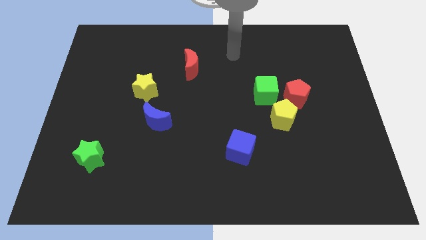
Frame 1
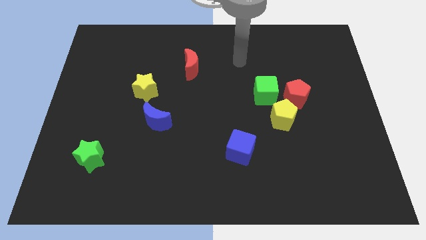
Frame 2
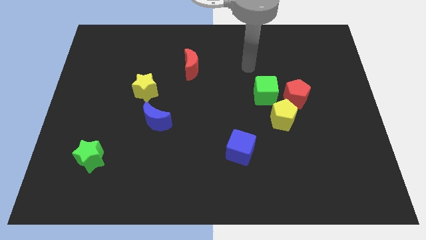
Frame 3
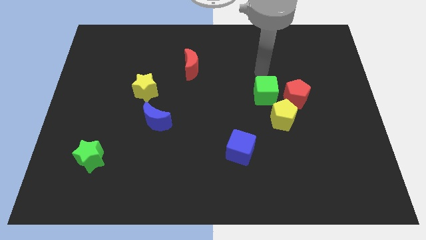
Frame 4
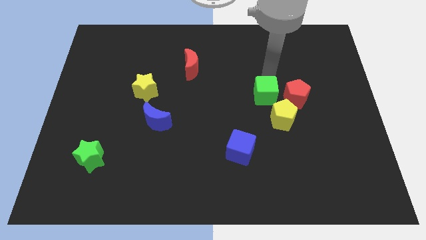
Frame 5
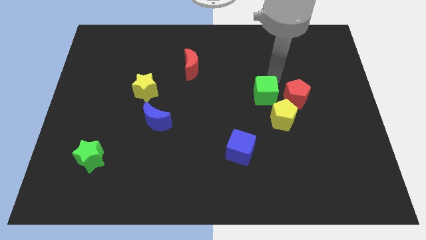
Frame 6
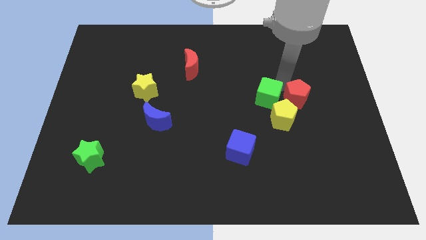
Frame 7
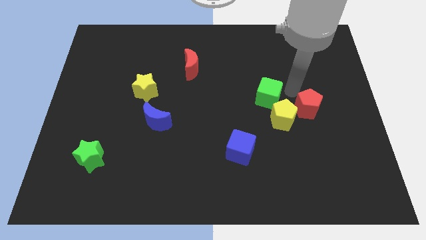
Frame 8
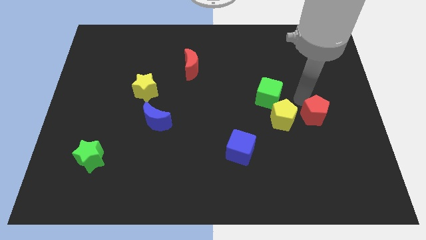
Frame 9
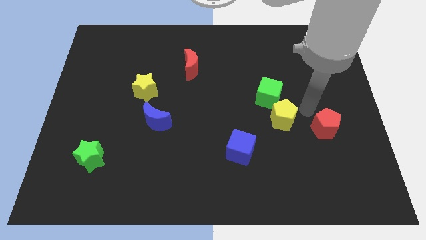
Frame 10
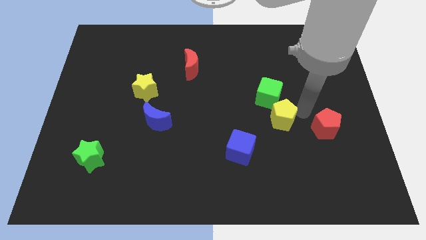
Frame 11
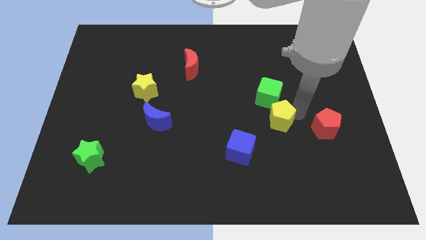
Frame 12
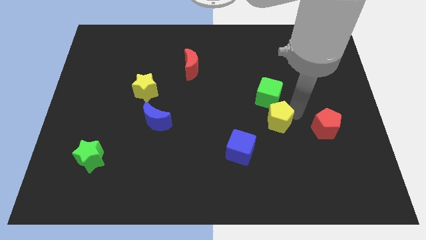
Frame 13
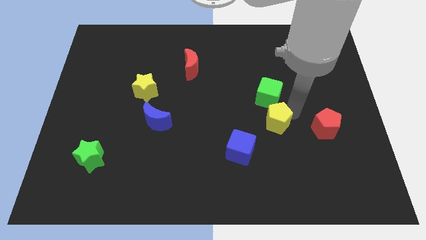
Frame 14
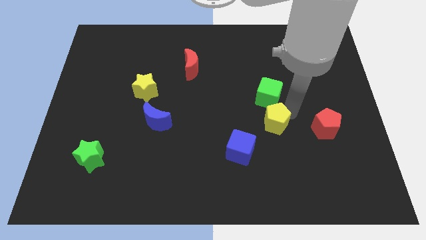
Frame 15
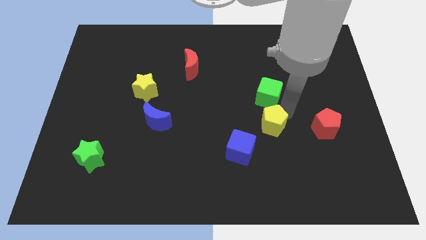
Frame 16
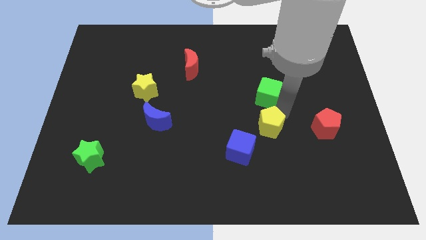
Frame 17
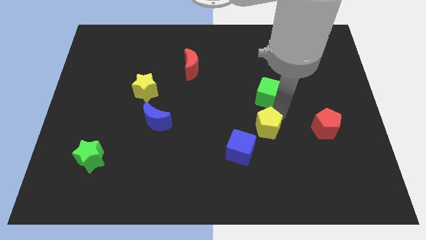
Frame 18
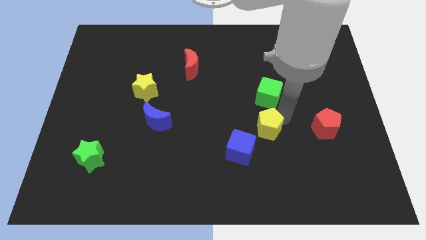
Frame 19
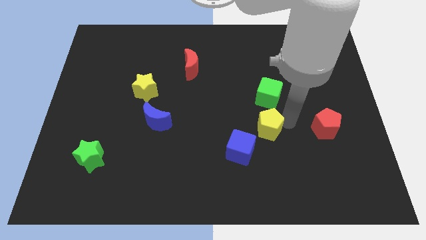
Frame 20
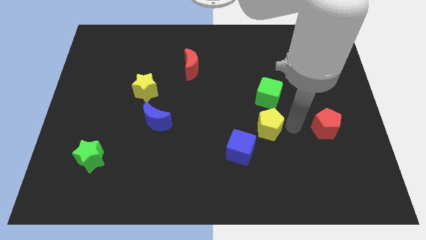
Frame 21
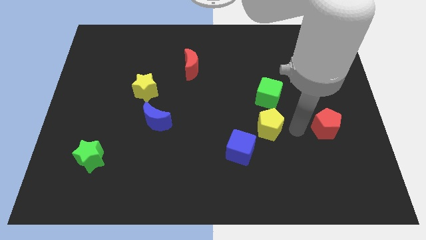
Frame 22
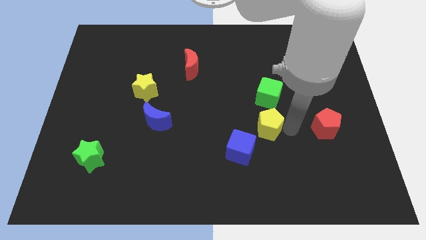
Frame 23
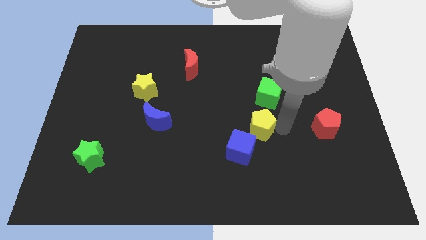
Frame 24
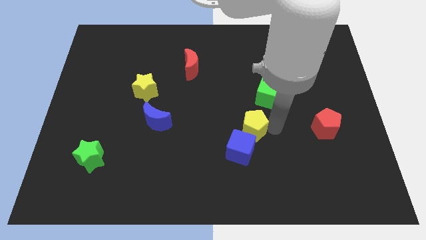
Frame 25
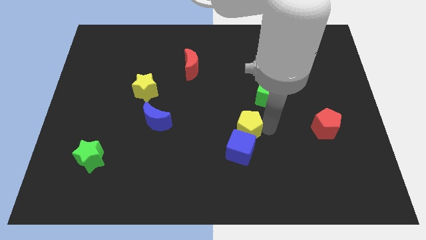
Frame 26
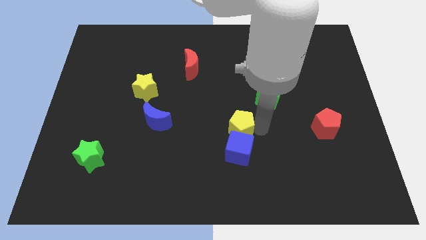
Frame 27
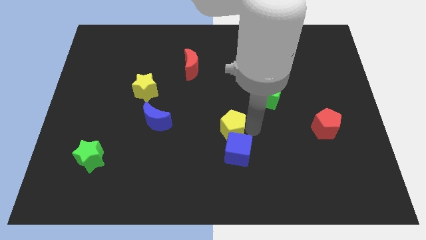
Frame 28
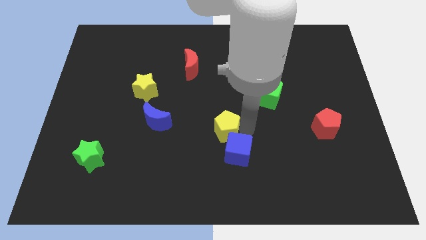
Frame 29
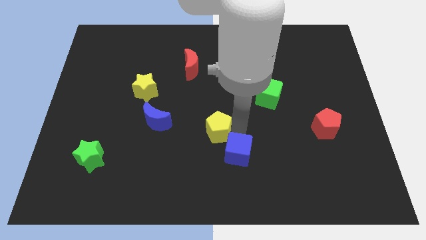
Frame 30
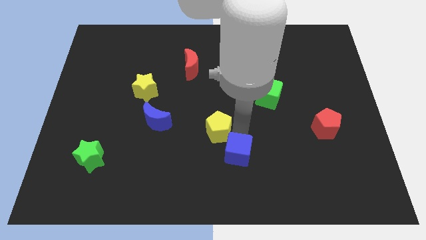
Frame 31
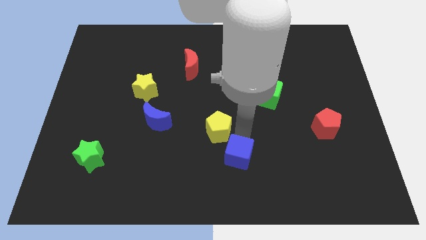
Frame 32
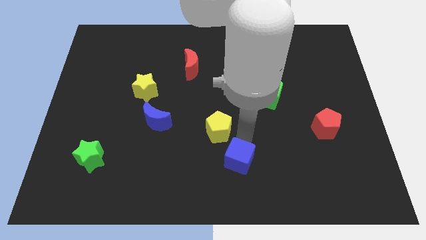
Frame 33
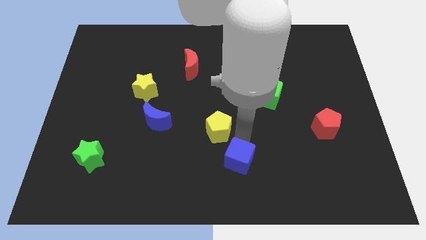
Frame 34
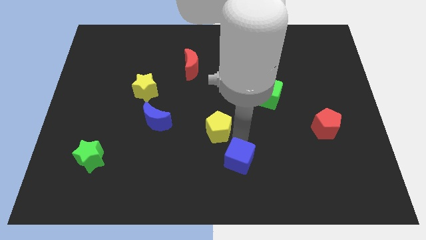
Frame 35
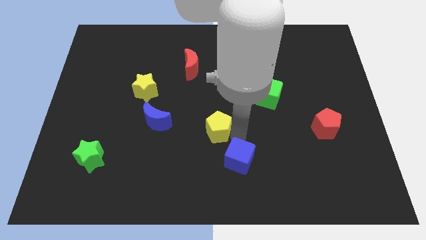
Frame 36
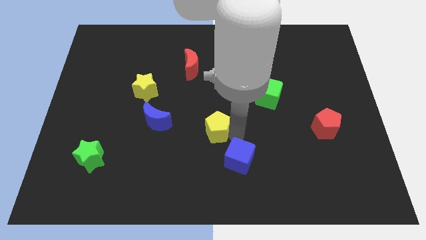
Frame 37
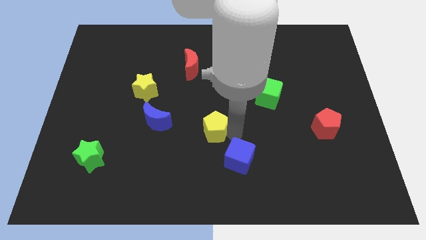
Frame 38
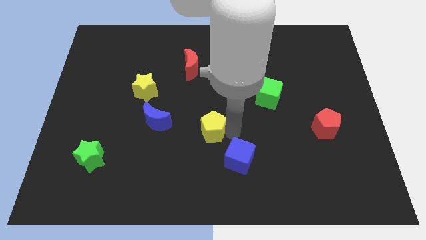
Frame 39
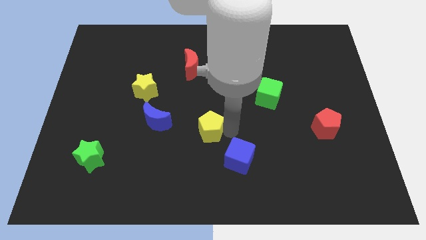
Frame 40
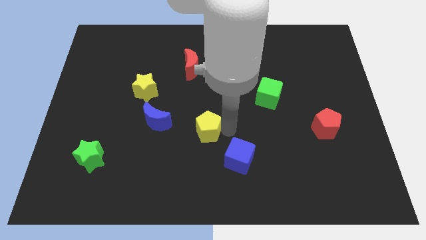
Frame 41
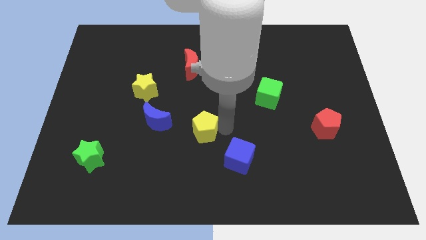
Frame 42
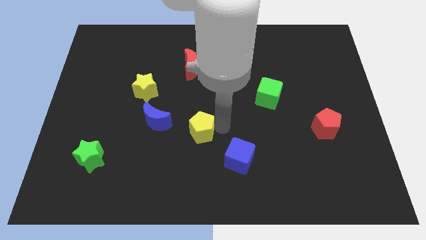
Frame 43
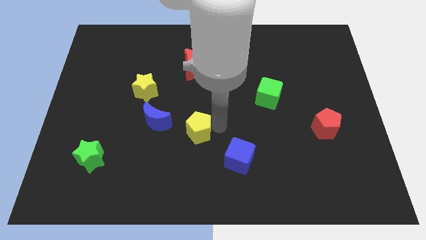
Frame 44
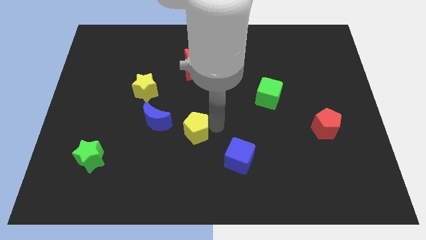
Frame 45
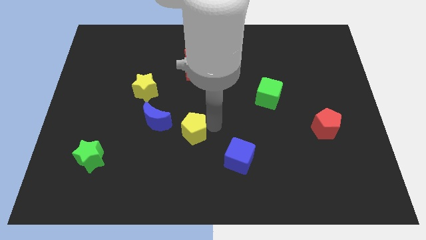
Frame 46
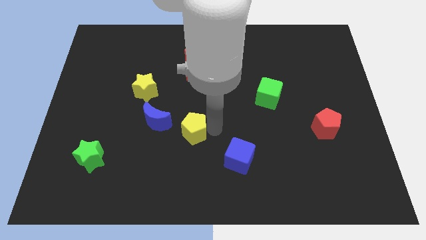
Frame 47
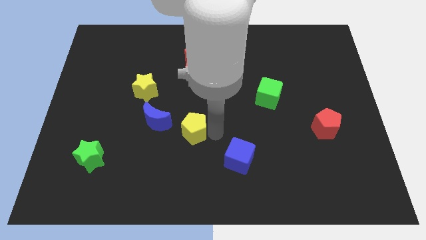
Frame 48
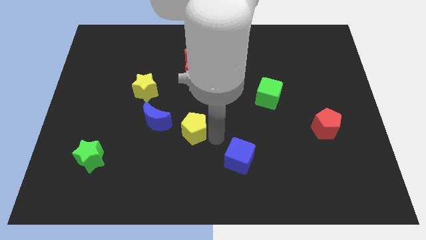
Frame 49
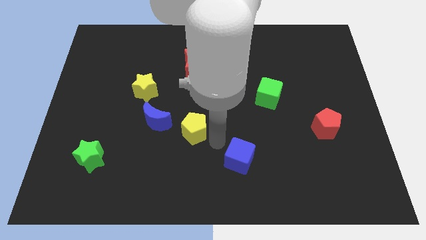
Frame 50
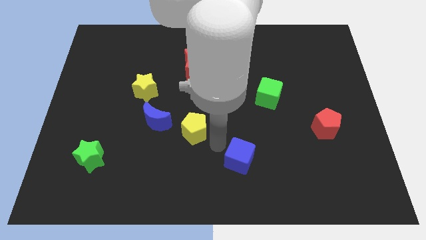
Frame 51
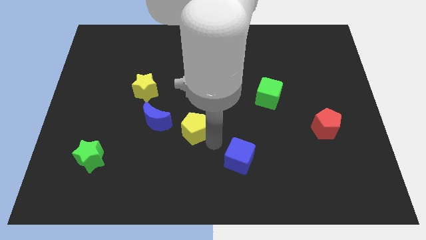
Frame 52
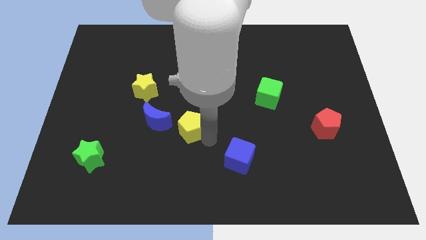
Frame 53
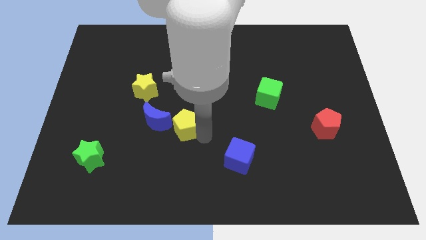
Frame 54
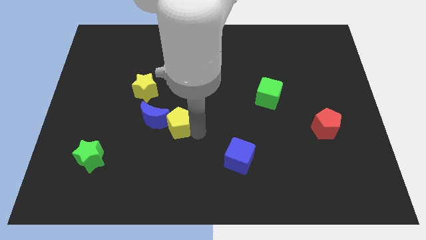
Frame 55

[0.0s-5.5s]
move the yellow pentagon to the blue moon

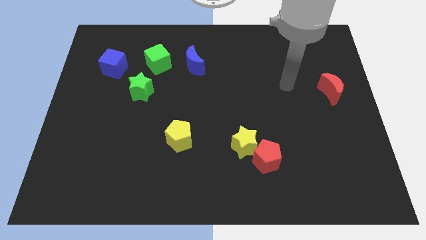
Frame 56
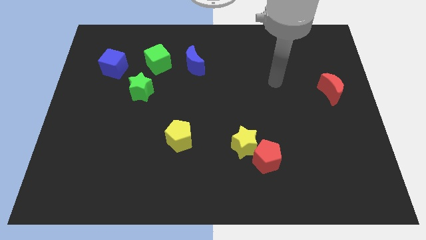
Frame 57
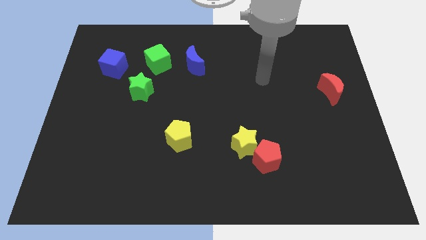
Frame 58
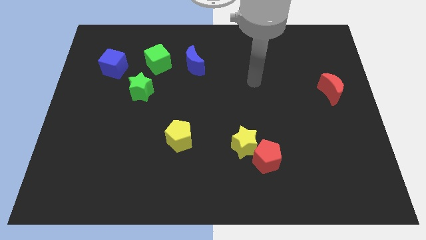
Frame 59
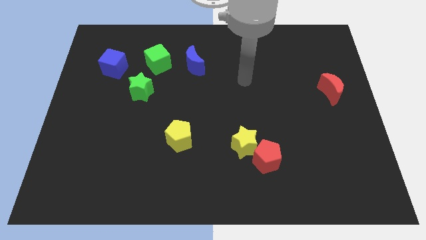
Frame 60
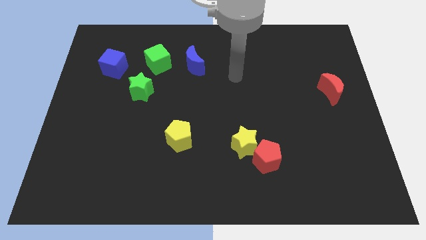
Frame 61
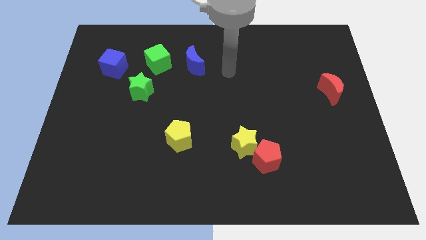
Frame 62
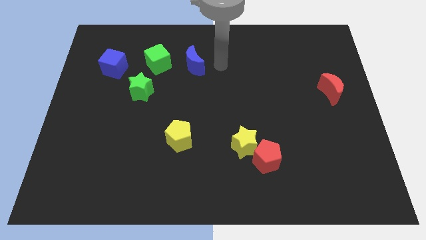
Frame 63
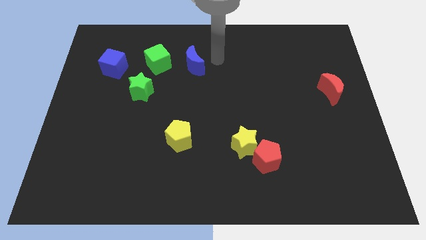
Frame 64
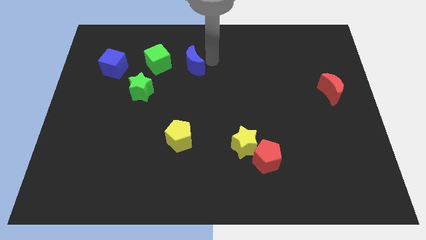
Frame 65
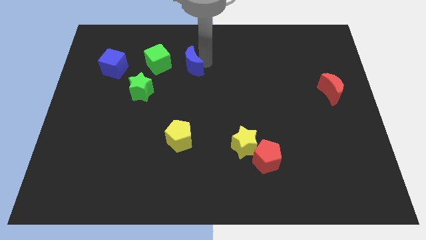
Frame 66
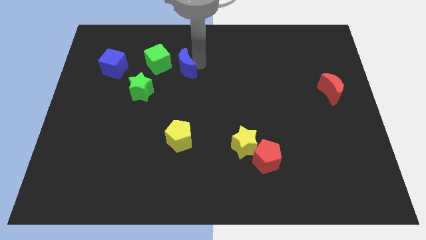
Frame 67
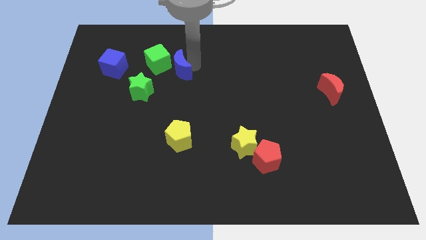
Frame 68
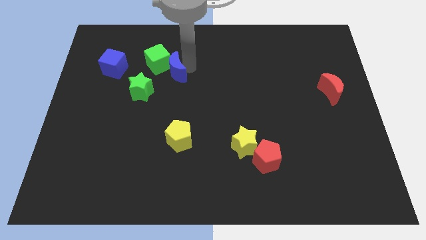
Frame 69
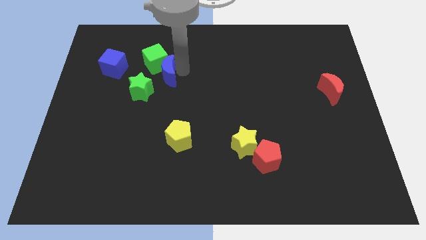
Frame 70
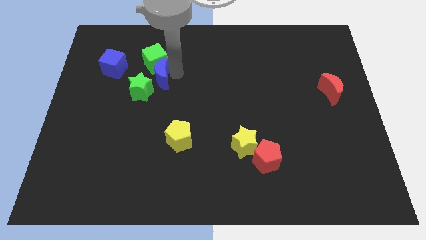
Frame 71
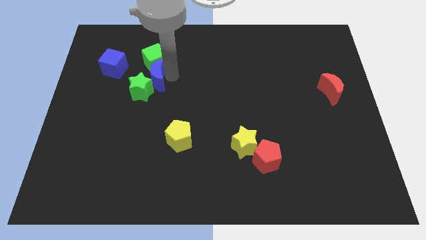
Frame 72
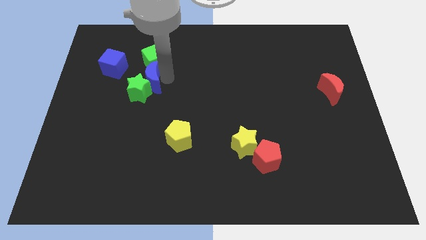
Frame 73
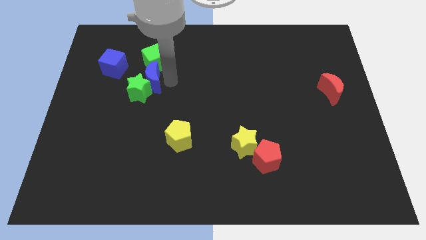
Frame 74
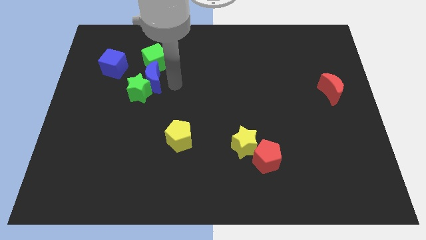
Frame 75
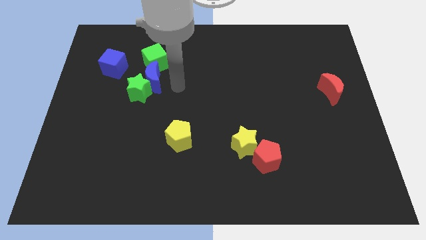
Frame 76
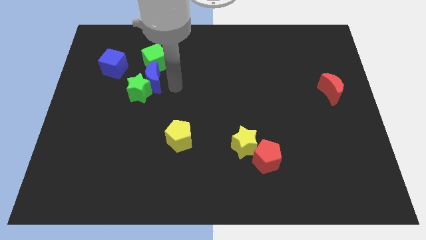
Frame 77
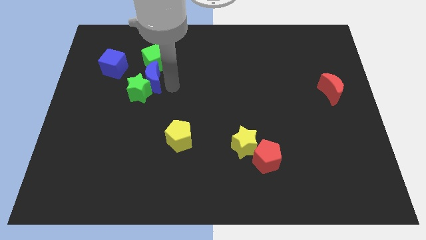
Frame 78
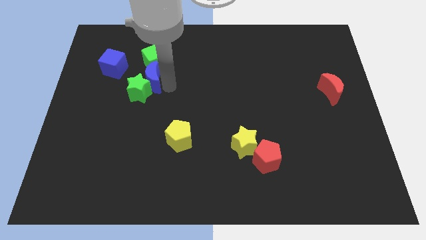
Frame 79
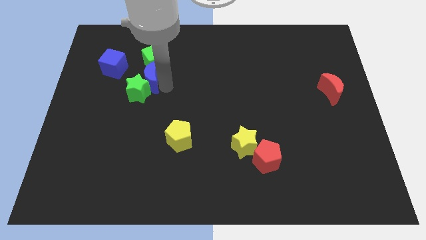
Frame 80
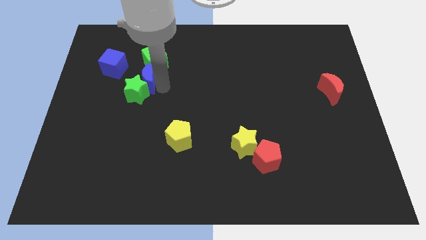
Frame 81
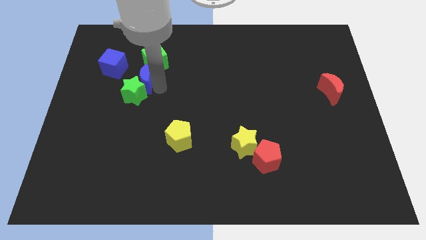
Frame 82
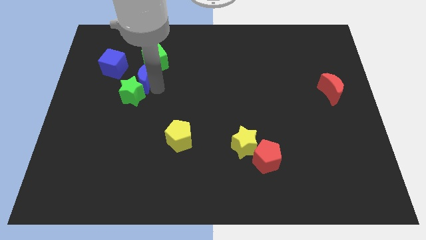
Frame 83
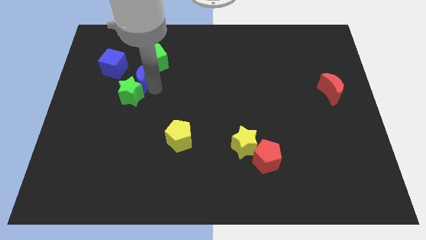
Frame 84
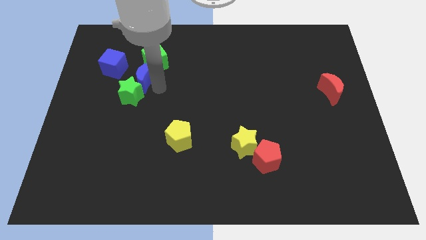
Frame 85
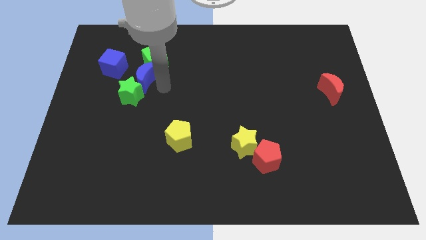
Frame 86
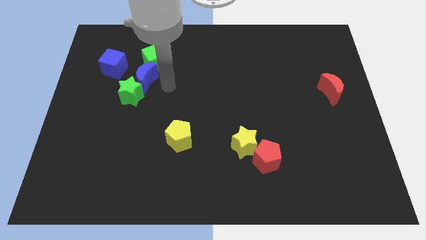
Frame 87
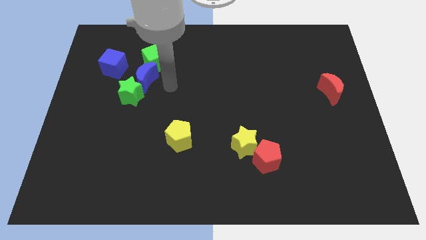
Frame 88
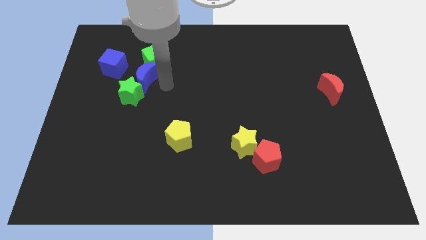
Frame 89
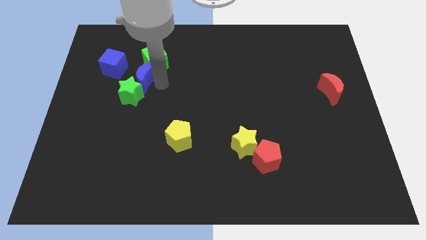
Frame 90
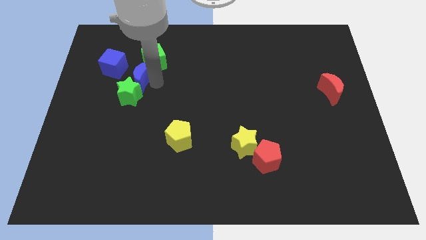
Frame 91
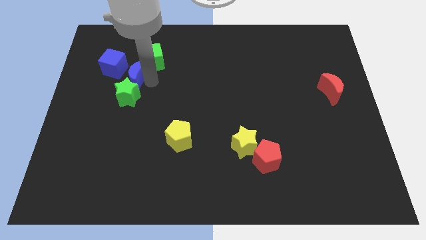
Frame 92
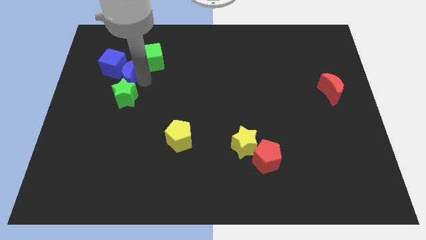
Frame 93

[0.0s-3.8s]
push the blue moon next to the blue cube
